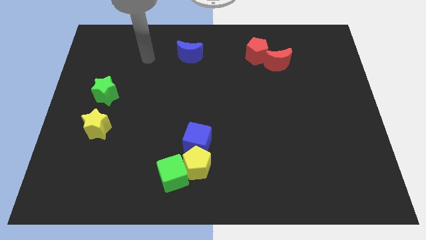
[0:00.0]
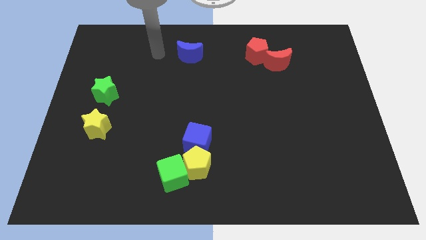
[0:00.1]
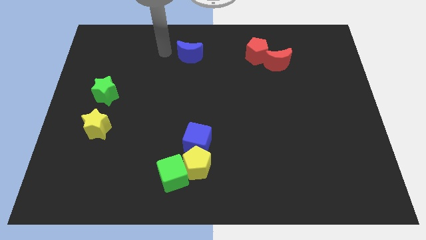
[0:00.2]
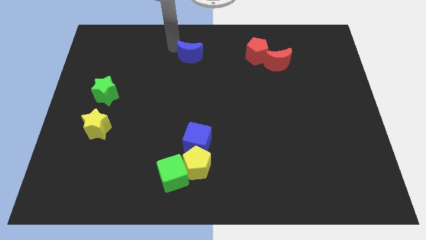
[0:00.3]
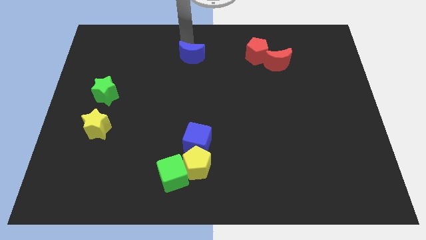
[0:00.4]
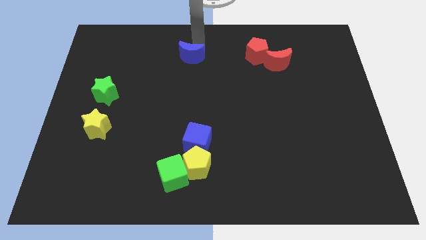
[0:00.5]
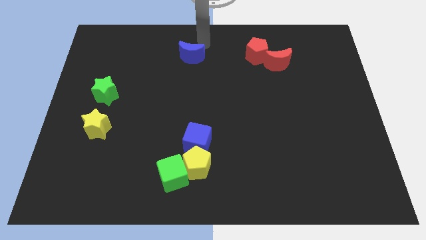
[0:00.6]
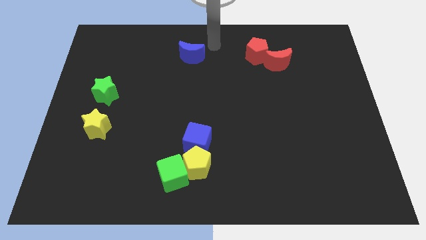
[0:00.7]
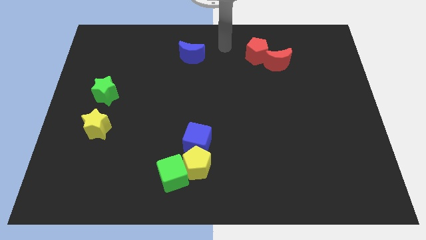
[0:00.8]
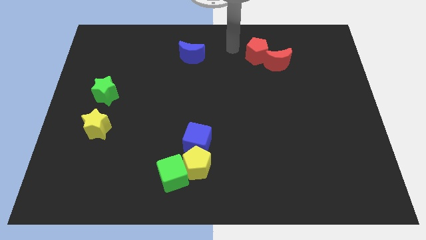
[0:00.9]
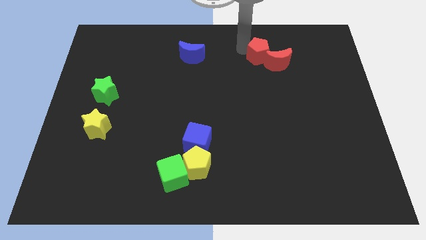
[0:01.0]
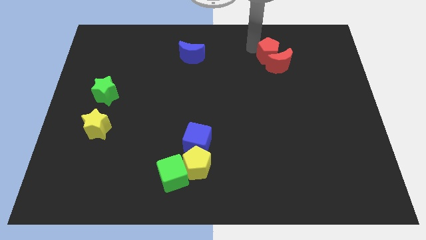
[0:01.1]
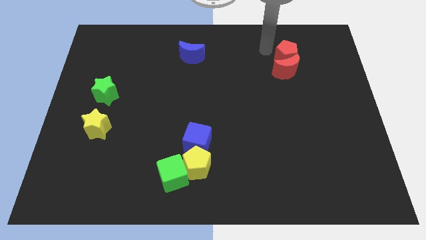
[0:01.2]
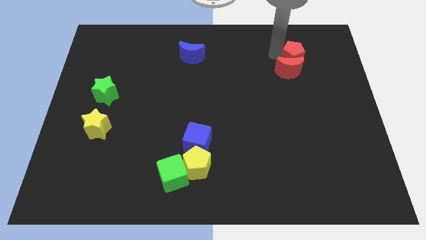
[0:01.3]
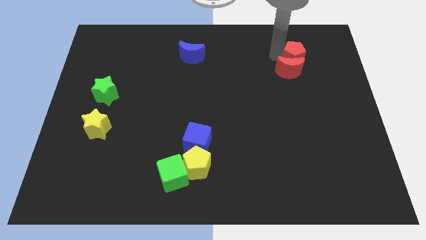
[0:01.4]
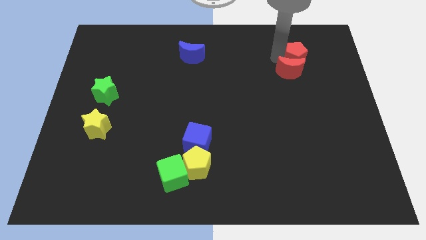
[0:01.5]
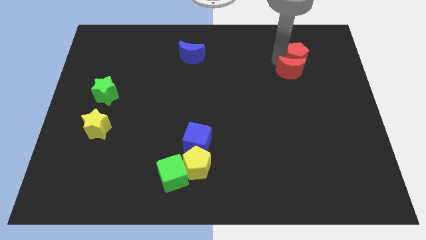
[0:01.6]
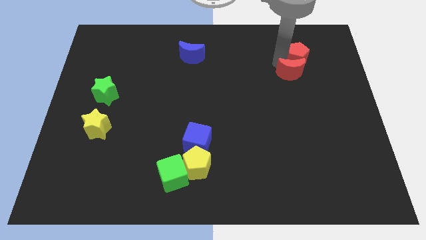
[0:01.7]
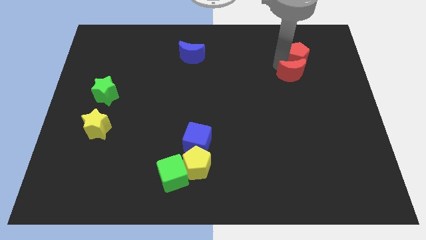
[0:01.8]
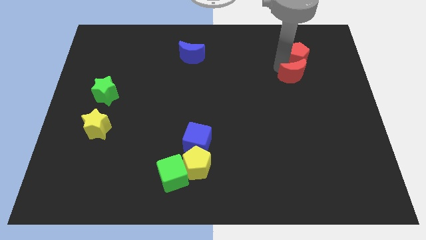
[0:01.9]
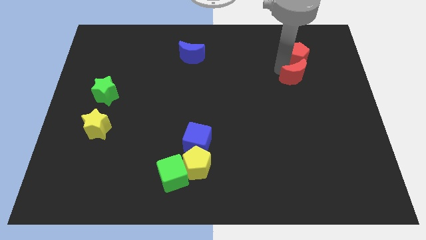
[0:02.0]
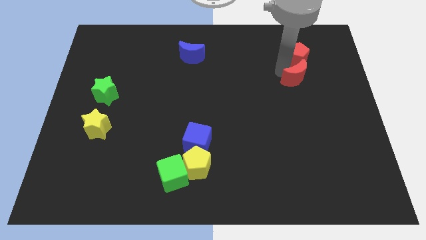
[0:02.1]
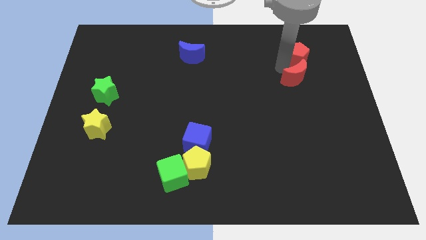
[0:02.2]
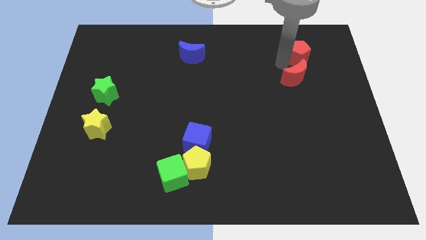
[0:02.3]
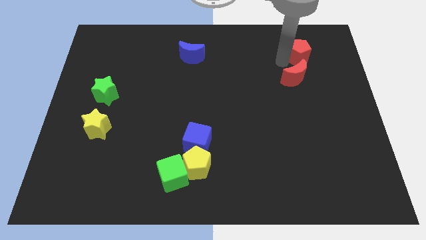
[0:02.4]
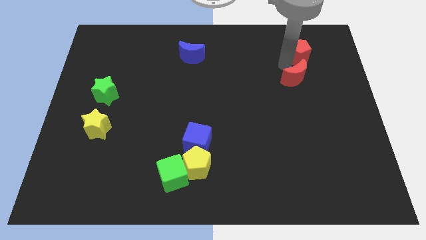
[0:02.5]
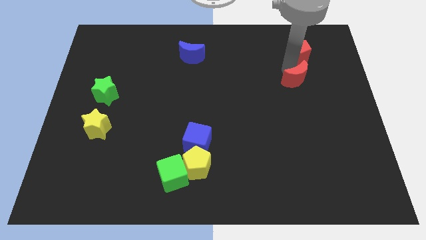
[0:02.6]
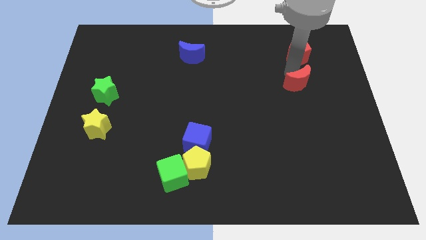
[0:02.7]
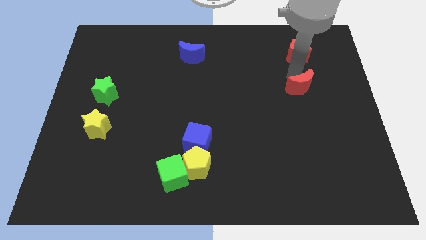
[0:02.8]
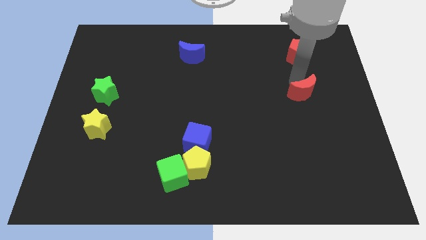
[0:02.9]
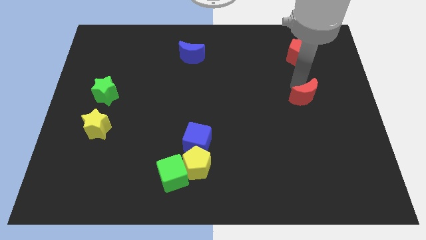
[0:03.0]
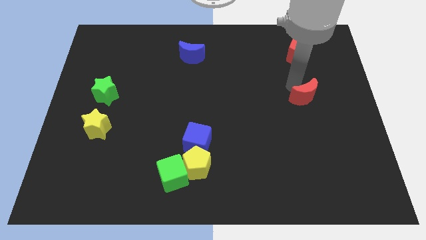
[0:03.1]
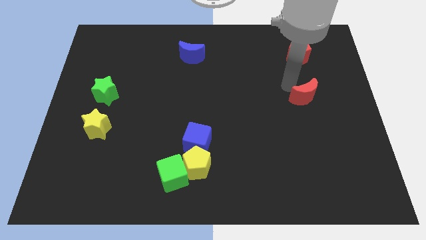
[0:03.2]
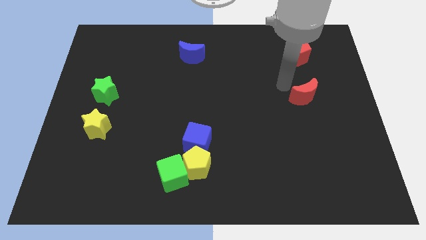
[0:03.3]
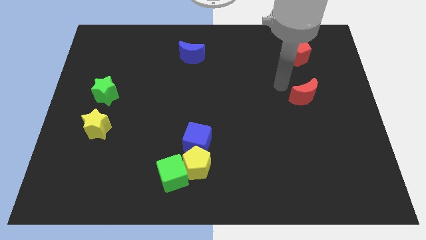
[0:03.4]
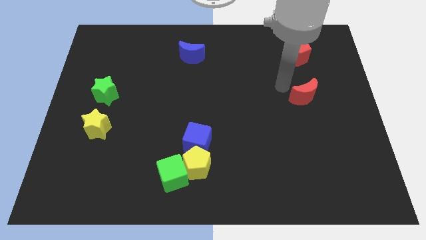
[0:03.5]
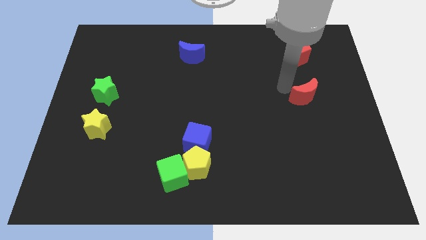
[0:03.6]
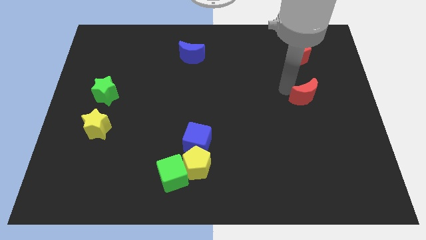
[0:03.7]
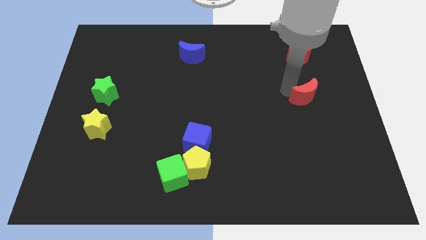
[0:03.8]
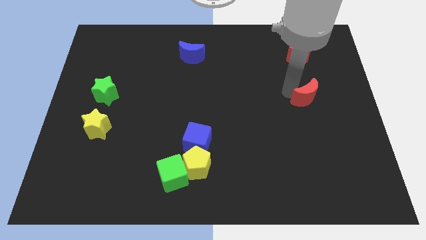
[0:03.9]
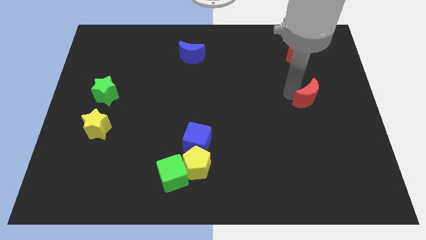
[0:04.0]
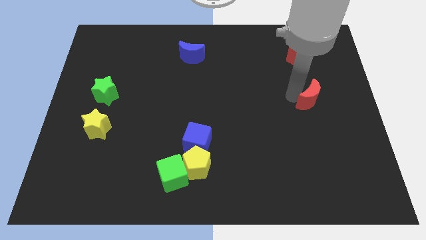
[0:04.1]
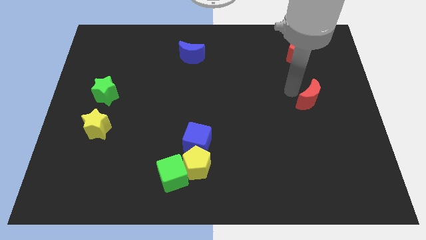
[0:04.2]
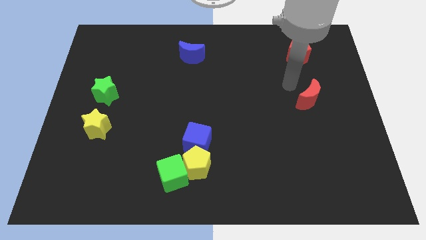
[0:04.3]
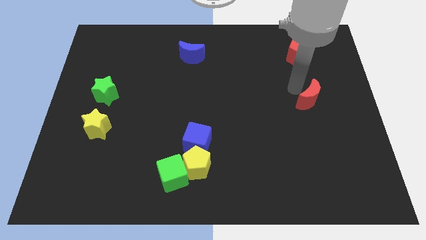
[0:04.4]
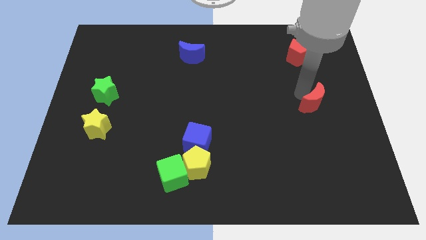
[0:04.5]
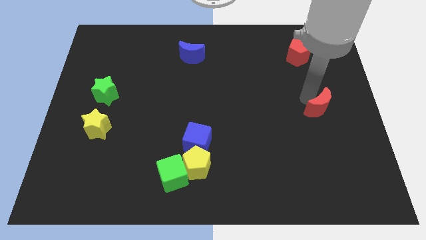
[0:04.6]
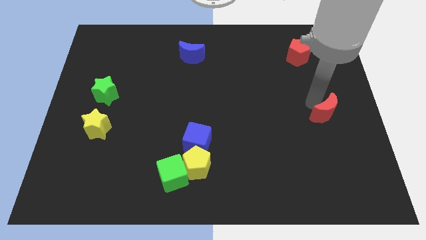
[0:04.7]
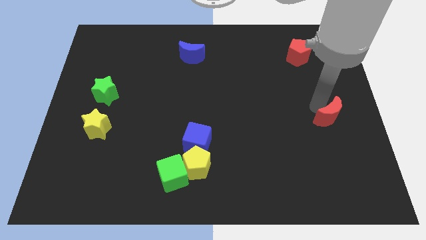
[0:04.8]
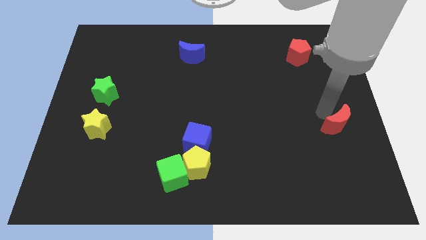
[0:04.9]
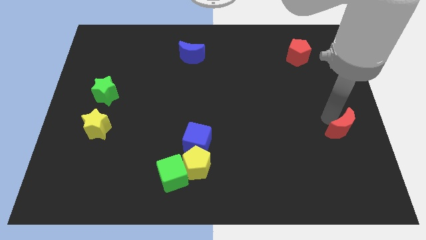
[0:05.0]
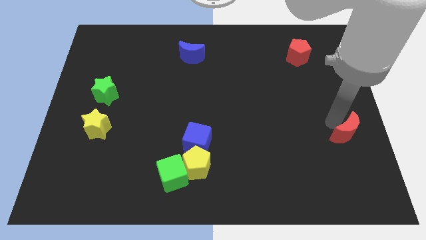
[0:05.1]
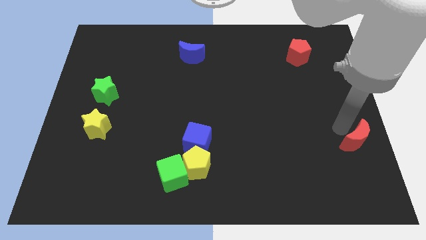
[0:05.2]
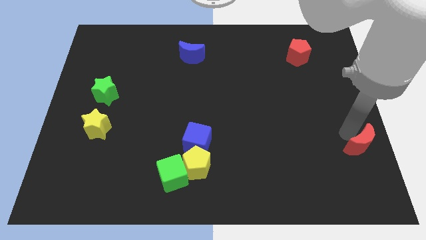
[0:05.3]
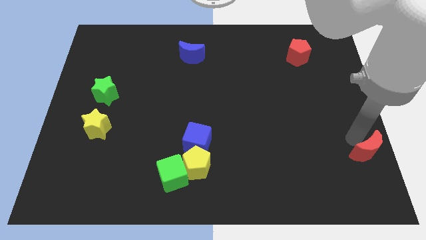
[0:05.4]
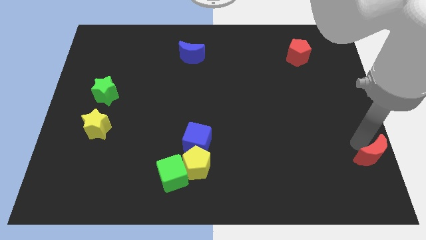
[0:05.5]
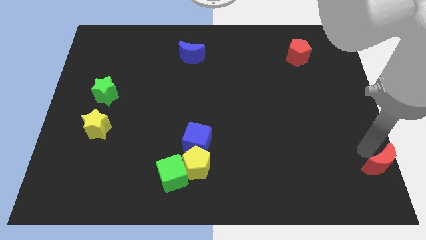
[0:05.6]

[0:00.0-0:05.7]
push the red moon to the bottom right of the board

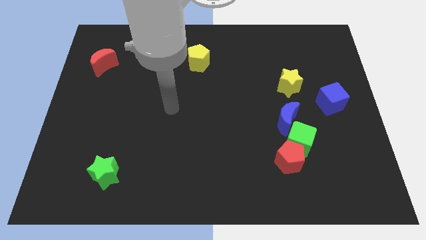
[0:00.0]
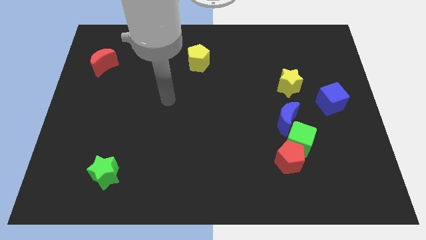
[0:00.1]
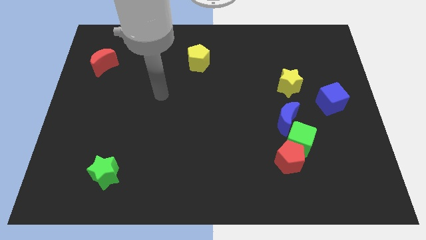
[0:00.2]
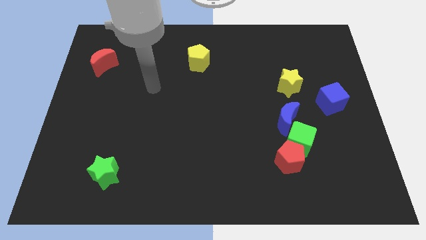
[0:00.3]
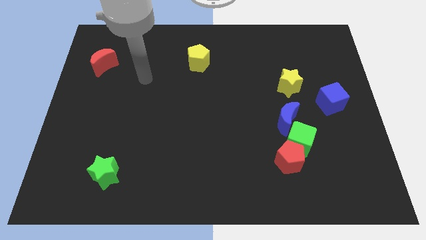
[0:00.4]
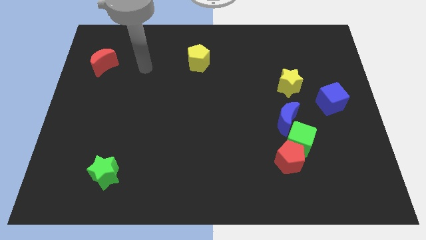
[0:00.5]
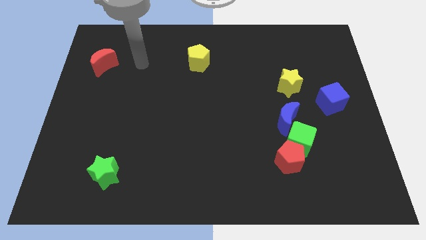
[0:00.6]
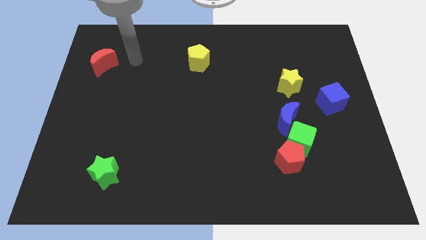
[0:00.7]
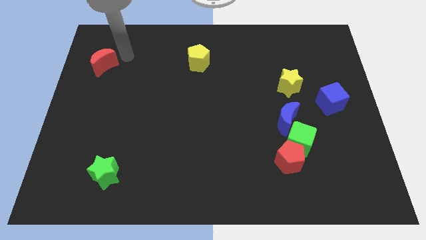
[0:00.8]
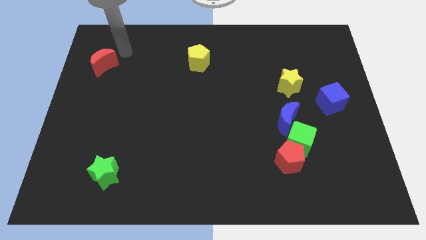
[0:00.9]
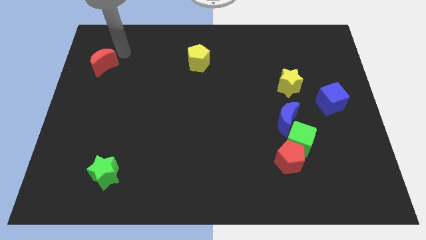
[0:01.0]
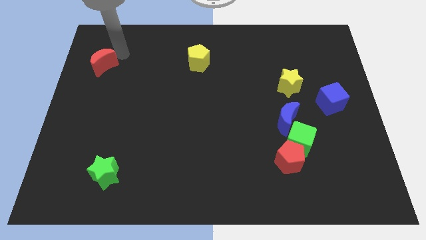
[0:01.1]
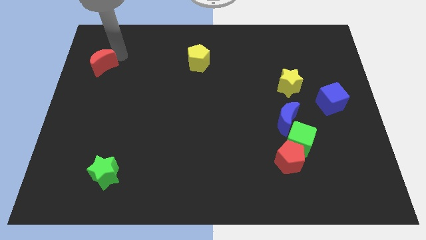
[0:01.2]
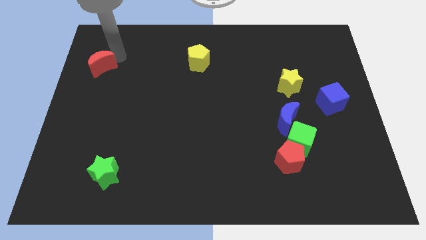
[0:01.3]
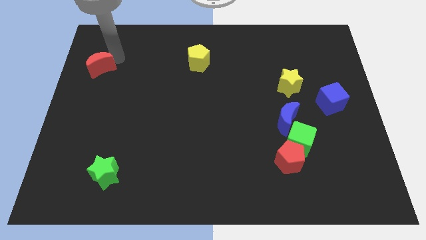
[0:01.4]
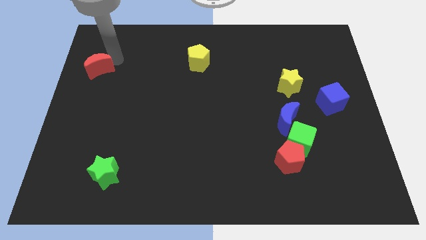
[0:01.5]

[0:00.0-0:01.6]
slide the red moon to the center left

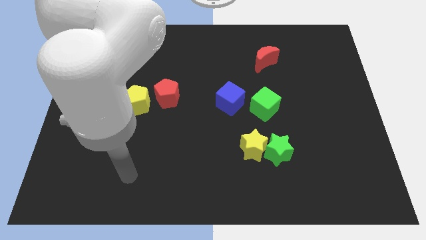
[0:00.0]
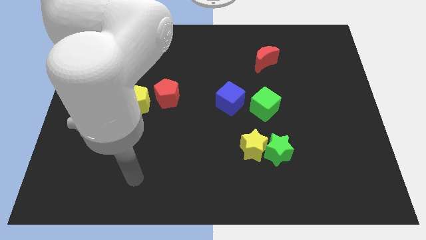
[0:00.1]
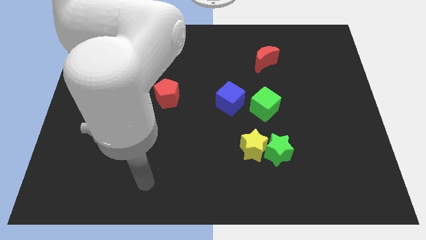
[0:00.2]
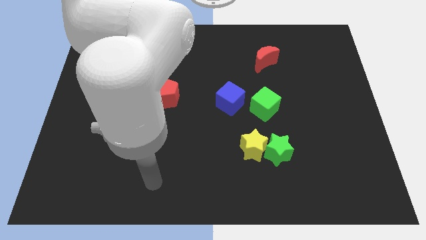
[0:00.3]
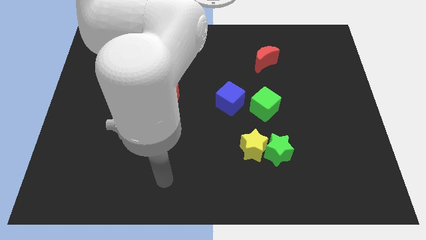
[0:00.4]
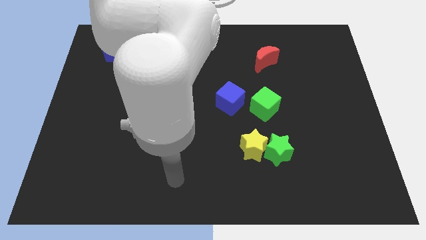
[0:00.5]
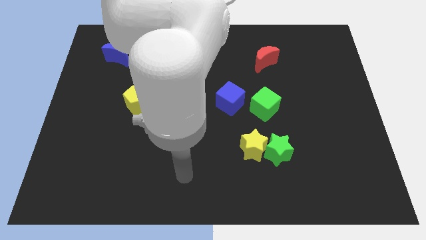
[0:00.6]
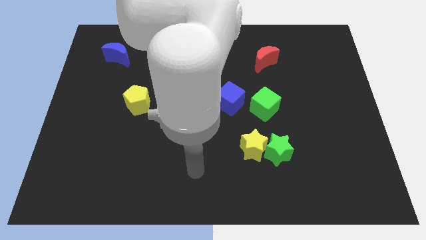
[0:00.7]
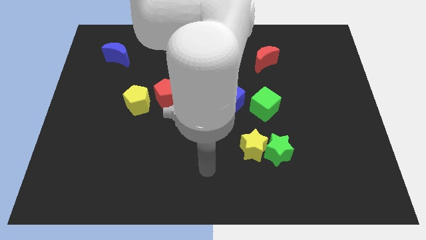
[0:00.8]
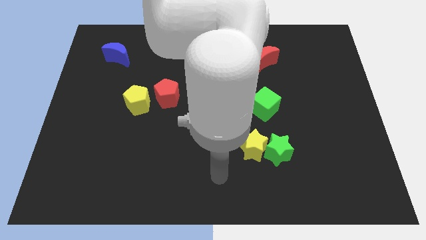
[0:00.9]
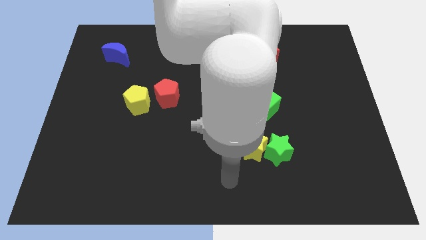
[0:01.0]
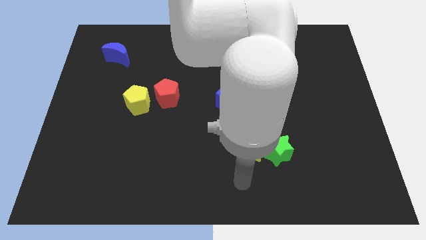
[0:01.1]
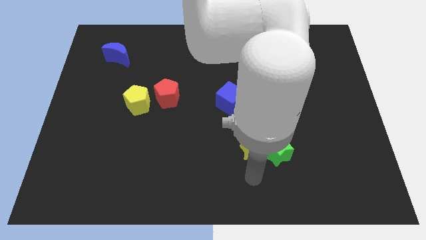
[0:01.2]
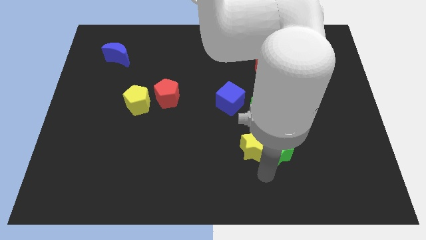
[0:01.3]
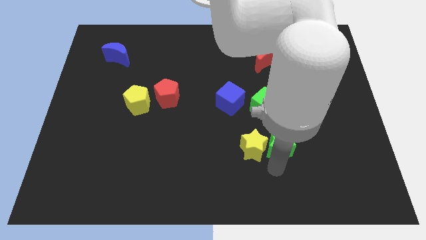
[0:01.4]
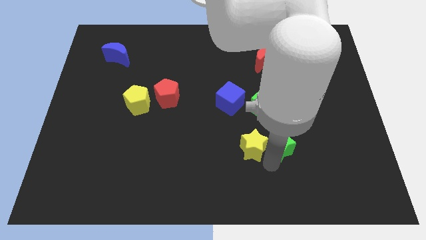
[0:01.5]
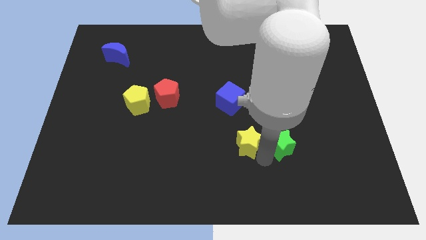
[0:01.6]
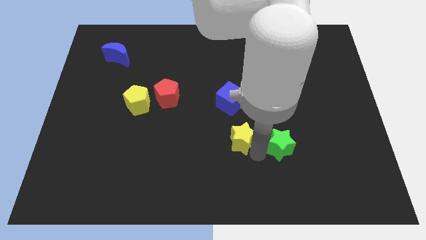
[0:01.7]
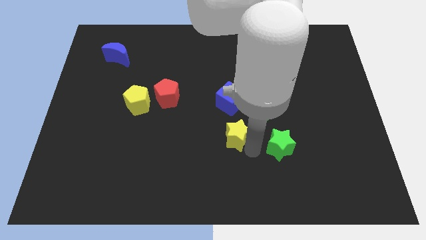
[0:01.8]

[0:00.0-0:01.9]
move the yellow star to the middle
